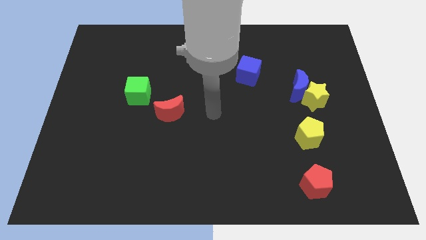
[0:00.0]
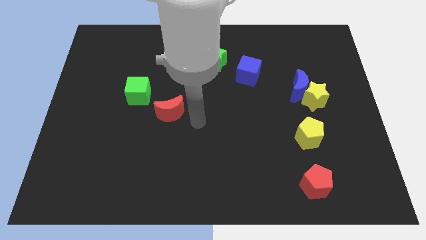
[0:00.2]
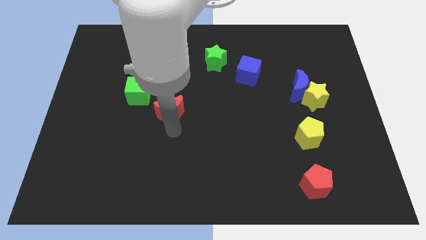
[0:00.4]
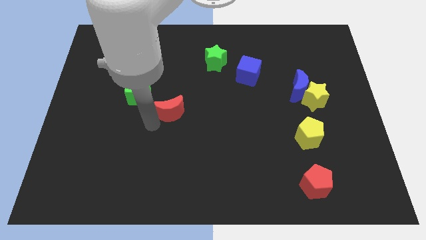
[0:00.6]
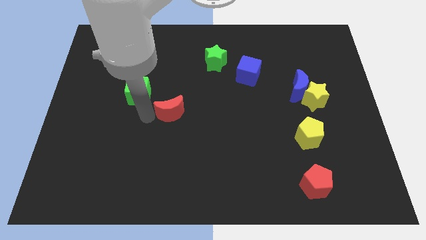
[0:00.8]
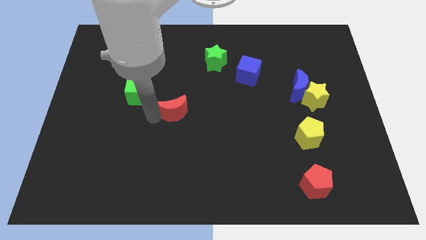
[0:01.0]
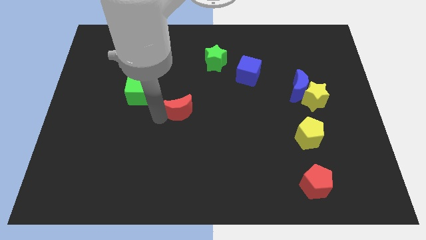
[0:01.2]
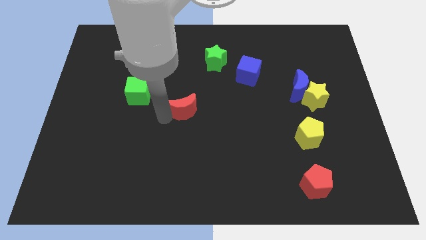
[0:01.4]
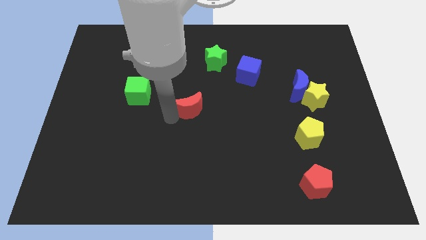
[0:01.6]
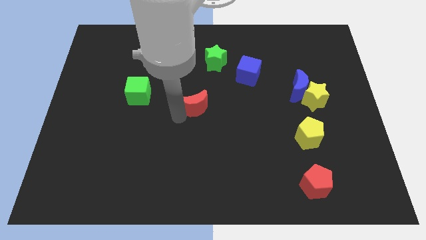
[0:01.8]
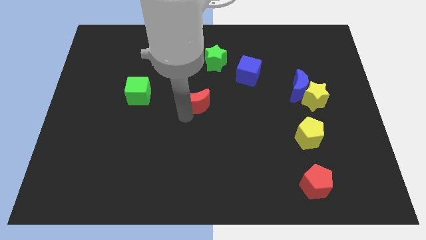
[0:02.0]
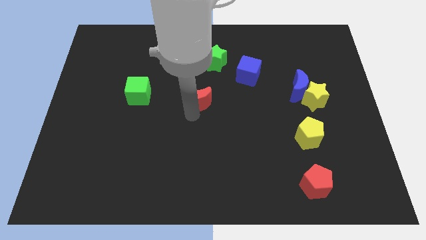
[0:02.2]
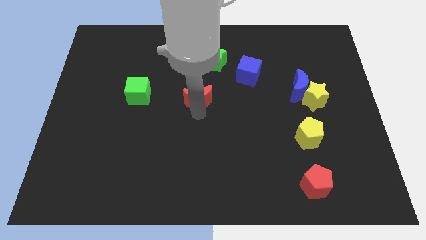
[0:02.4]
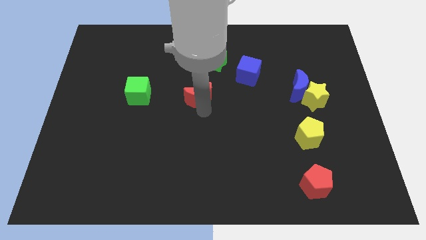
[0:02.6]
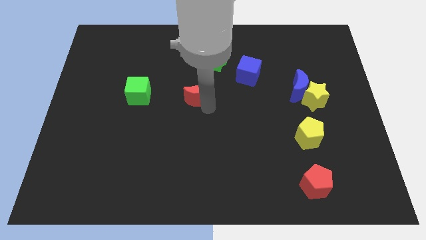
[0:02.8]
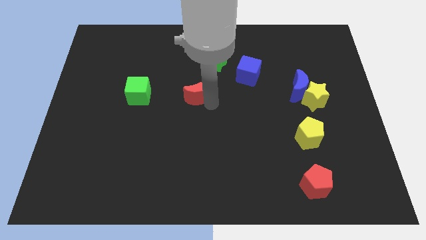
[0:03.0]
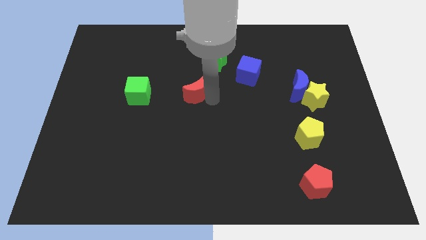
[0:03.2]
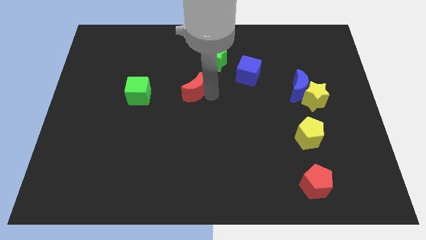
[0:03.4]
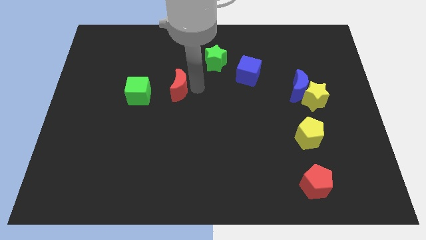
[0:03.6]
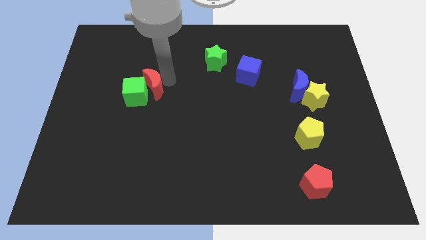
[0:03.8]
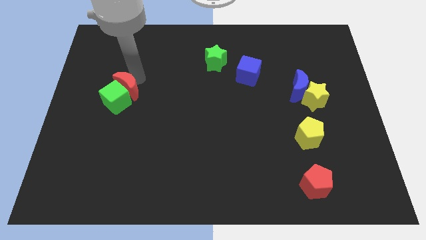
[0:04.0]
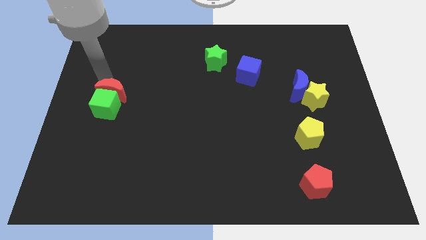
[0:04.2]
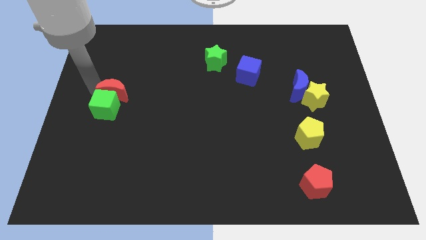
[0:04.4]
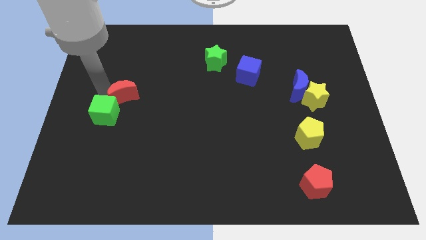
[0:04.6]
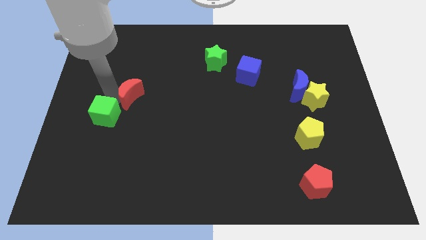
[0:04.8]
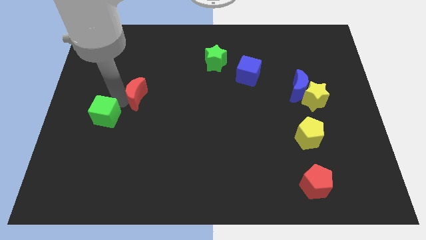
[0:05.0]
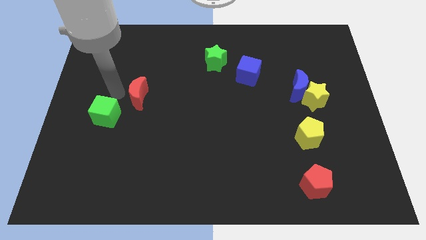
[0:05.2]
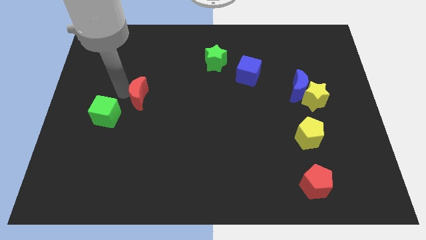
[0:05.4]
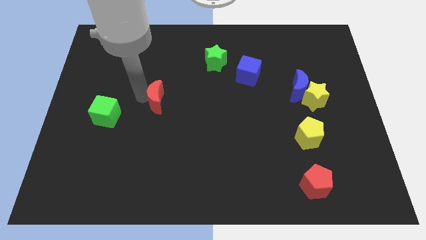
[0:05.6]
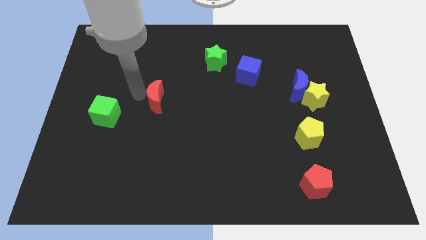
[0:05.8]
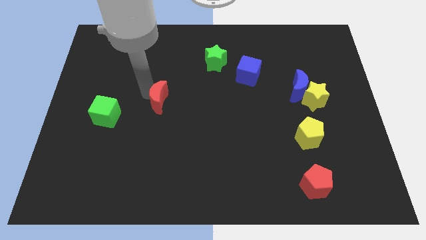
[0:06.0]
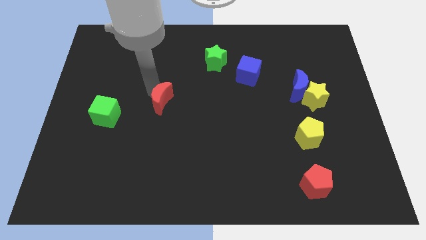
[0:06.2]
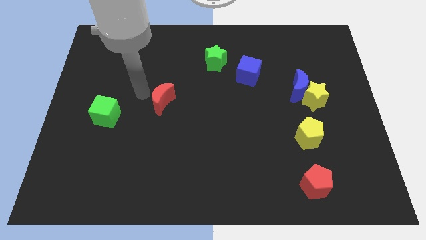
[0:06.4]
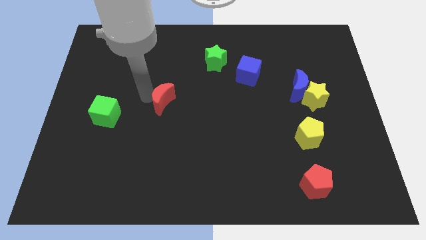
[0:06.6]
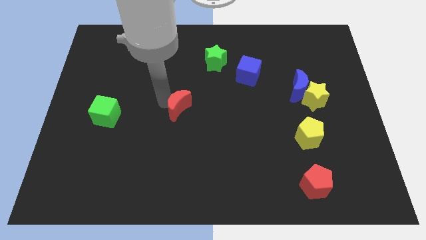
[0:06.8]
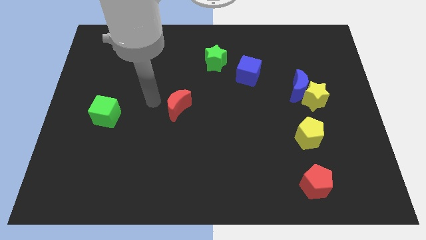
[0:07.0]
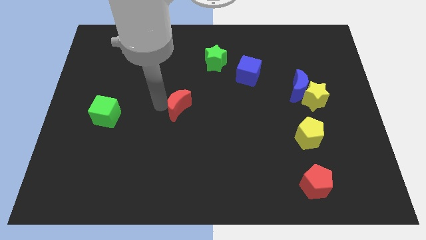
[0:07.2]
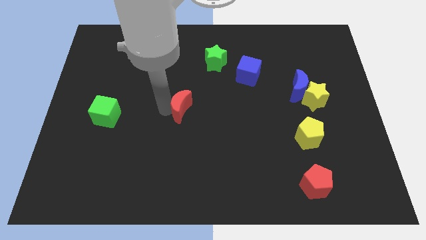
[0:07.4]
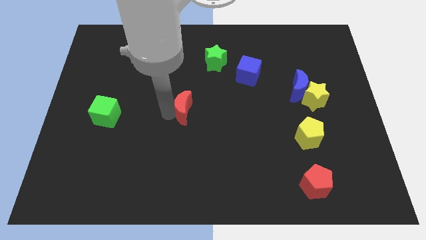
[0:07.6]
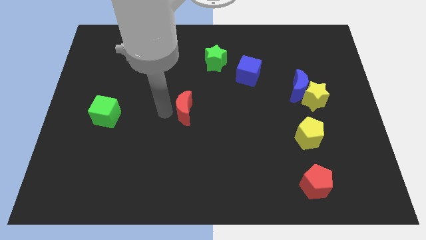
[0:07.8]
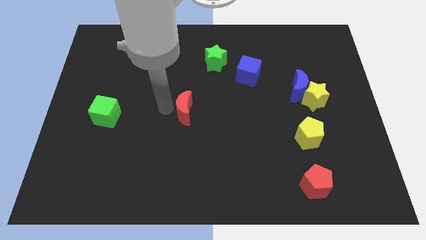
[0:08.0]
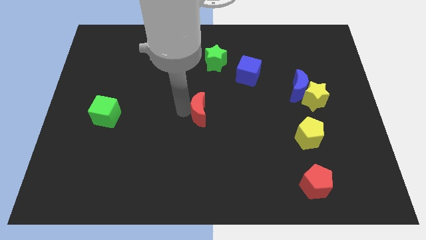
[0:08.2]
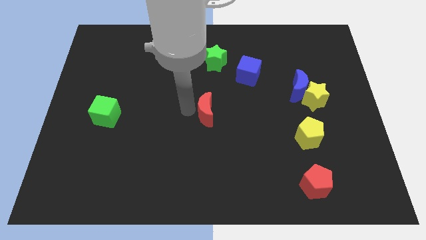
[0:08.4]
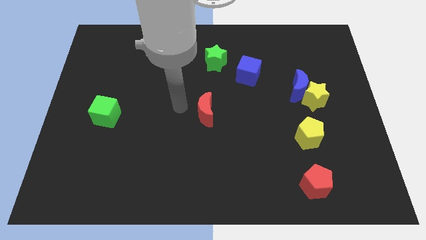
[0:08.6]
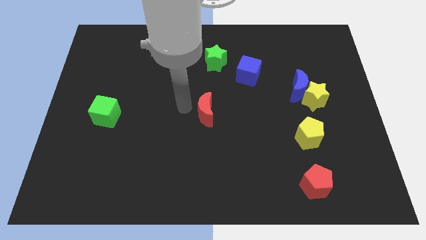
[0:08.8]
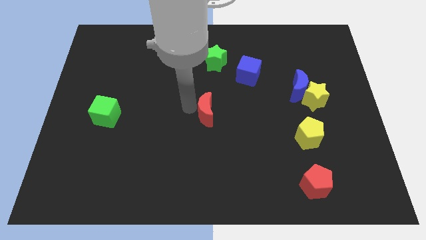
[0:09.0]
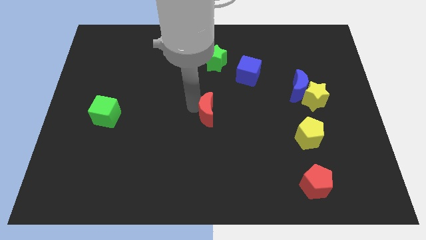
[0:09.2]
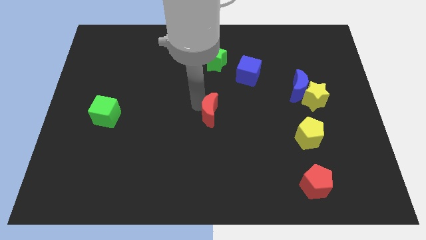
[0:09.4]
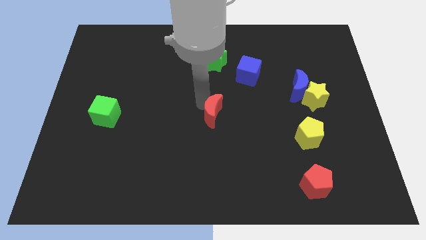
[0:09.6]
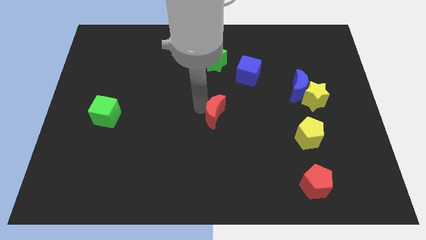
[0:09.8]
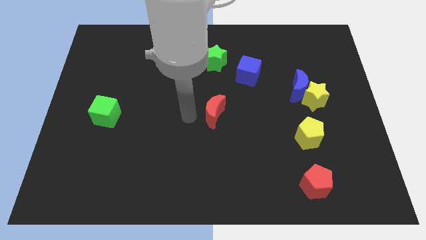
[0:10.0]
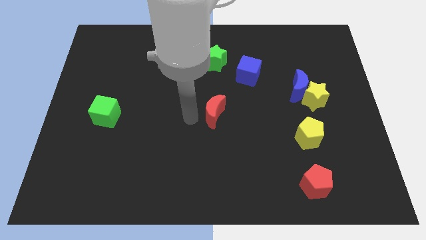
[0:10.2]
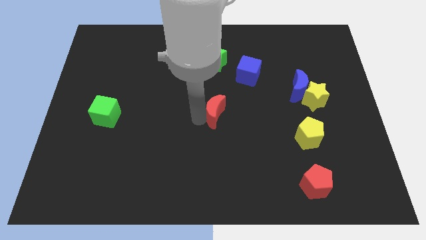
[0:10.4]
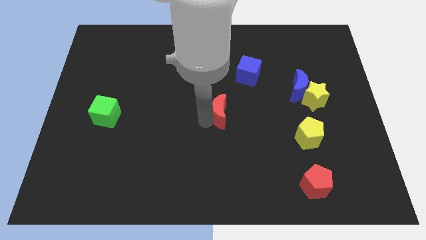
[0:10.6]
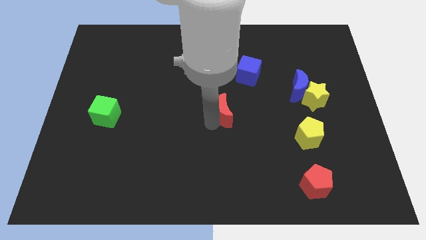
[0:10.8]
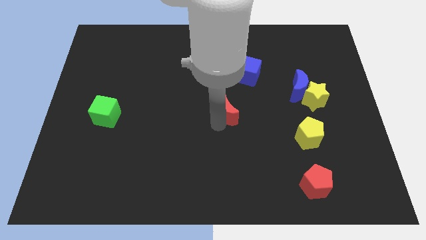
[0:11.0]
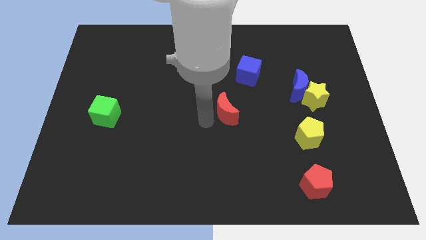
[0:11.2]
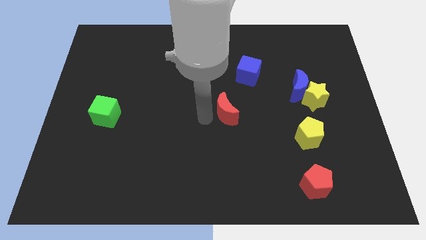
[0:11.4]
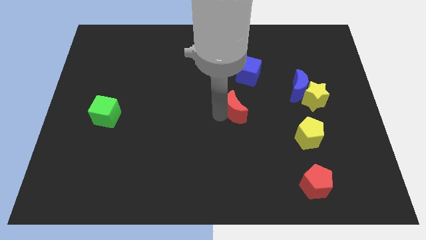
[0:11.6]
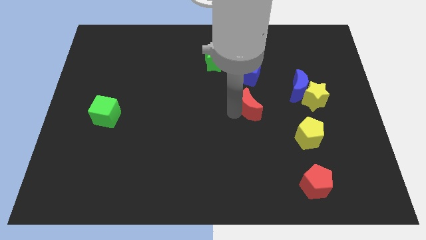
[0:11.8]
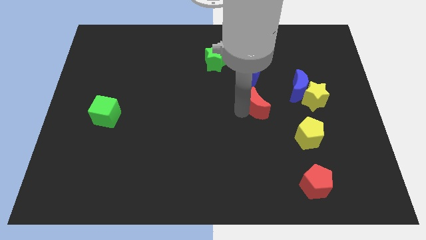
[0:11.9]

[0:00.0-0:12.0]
push the red moon left of the yellow star

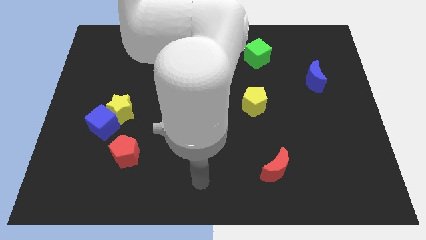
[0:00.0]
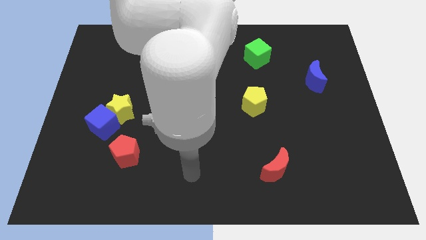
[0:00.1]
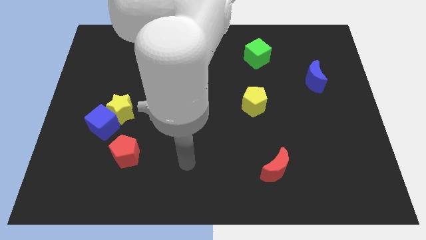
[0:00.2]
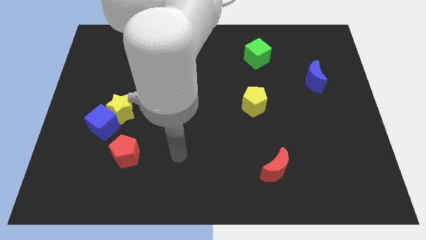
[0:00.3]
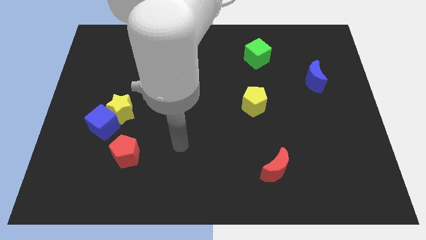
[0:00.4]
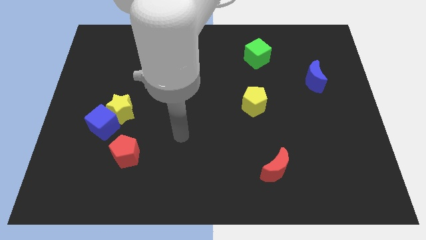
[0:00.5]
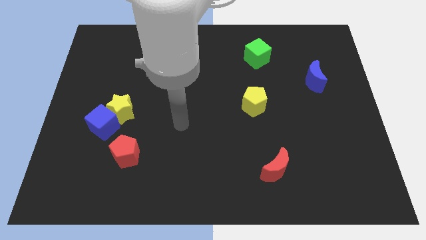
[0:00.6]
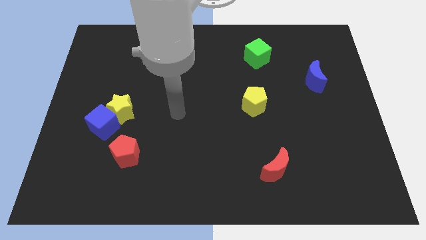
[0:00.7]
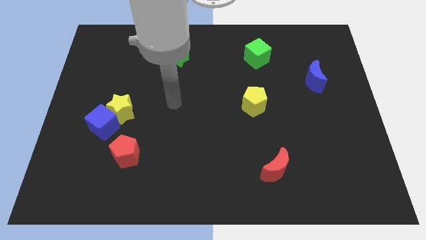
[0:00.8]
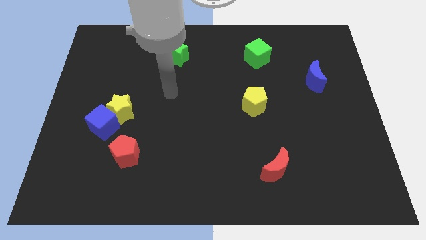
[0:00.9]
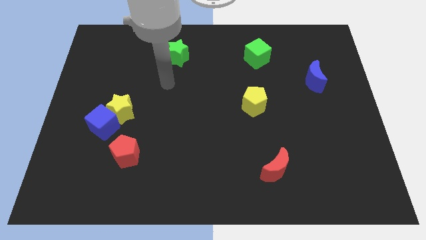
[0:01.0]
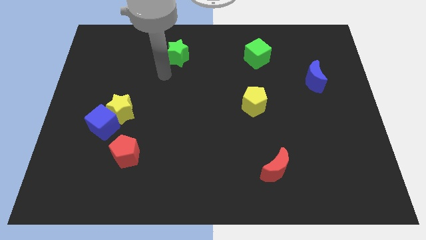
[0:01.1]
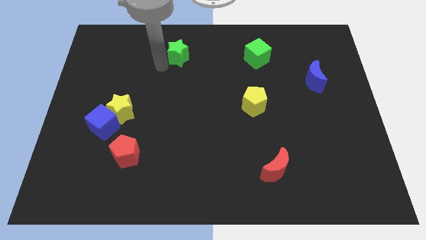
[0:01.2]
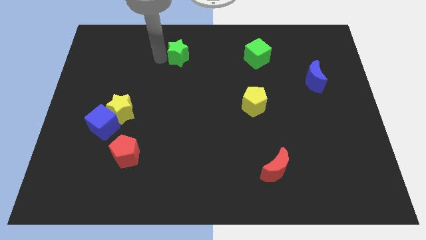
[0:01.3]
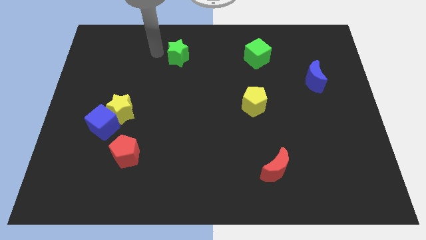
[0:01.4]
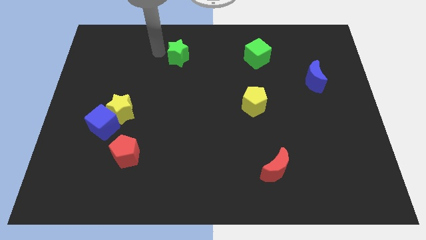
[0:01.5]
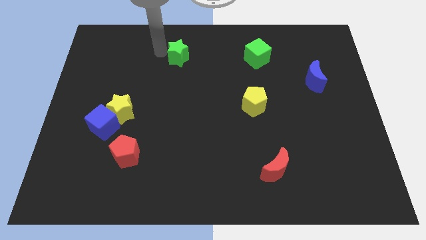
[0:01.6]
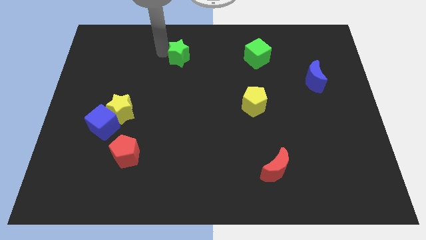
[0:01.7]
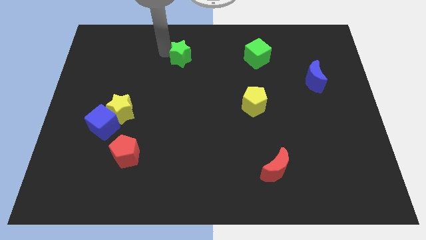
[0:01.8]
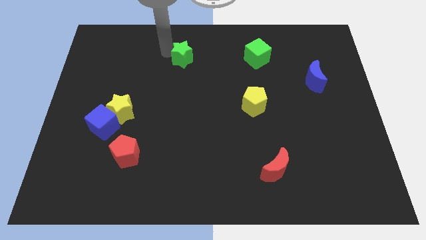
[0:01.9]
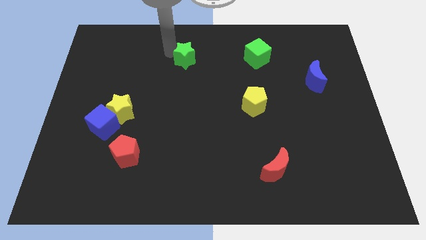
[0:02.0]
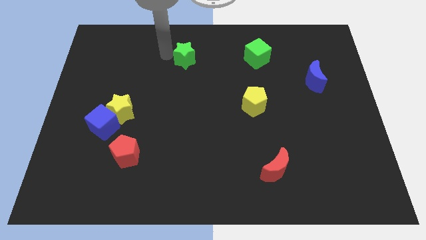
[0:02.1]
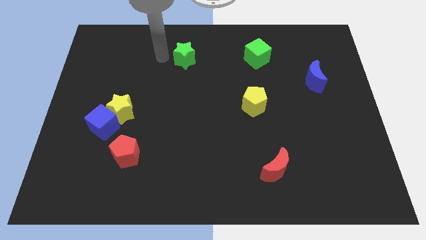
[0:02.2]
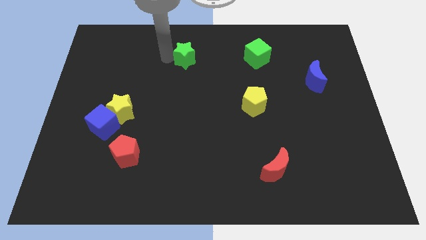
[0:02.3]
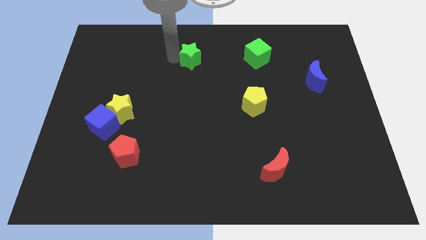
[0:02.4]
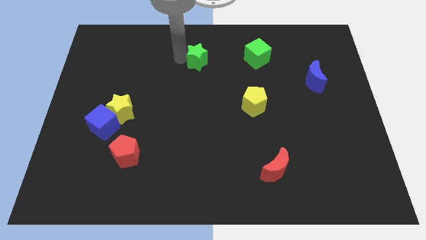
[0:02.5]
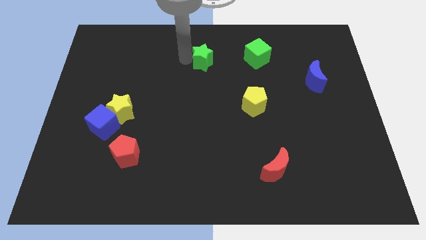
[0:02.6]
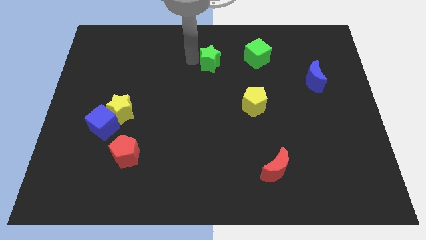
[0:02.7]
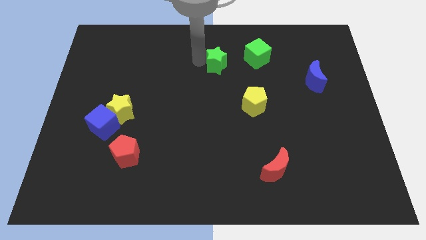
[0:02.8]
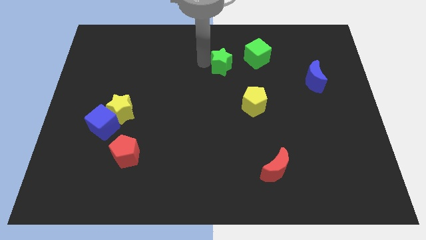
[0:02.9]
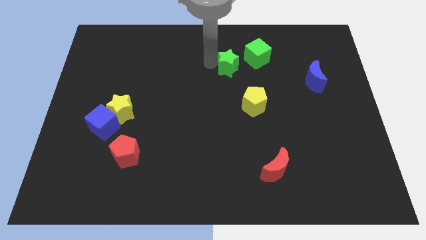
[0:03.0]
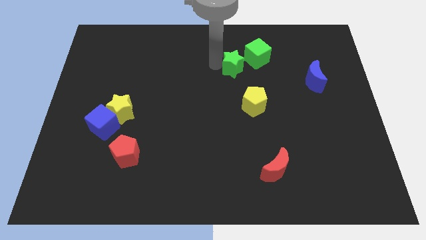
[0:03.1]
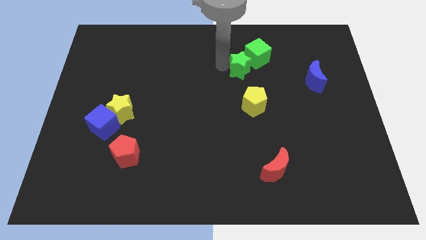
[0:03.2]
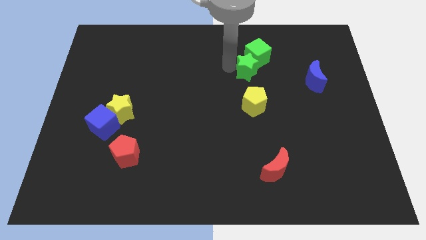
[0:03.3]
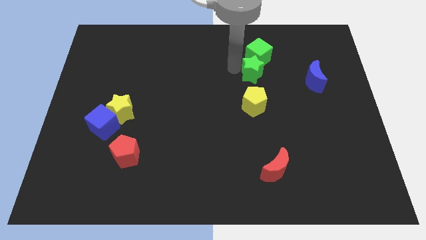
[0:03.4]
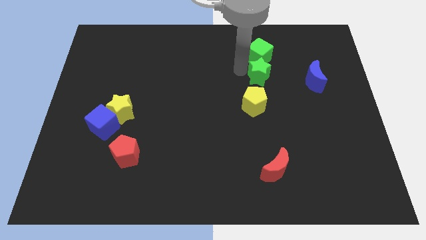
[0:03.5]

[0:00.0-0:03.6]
move the green star to the bottom right of the green cube
